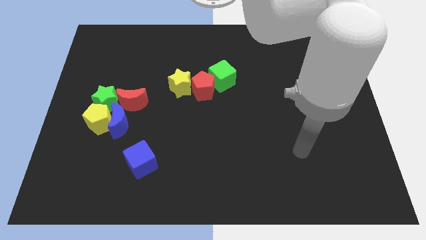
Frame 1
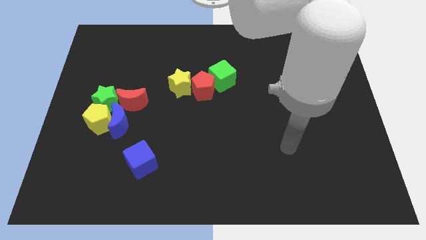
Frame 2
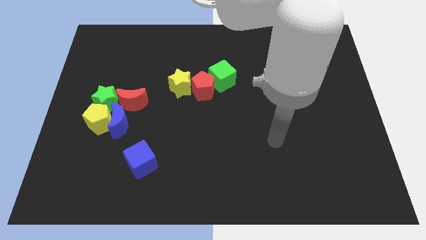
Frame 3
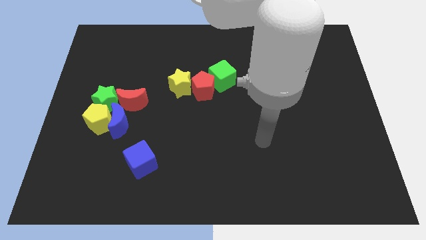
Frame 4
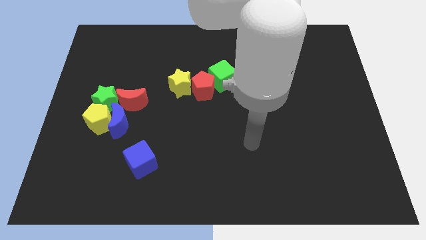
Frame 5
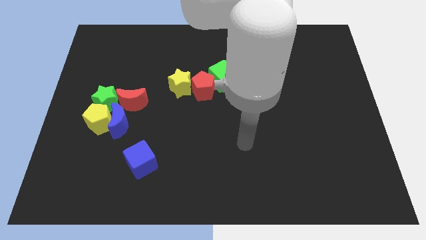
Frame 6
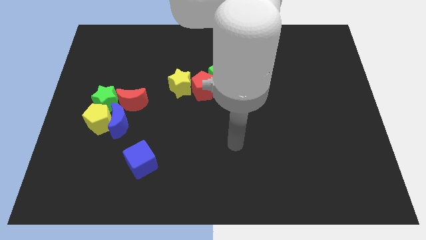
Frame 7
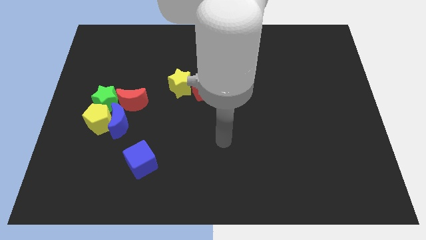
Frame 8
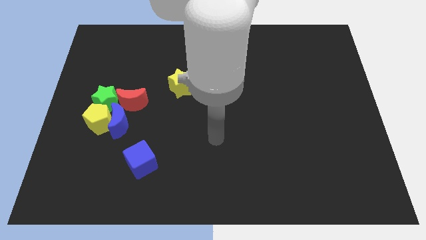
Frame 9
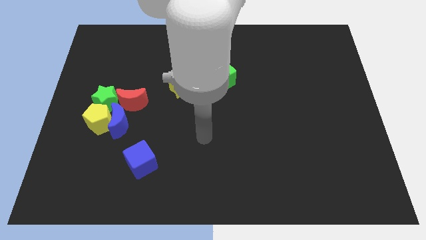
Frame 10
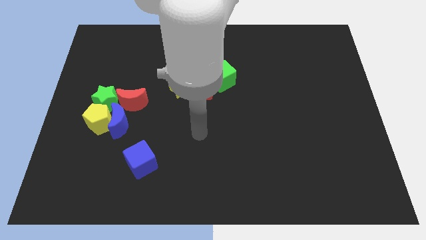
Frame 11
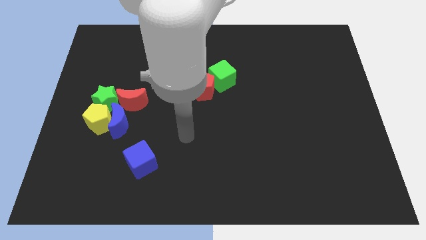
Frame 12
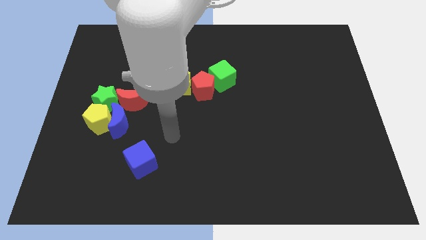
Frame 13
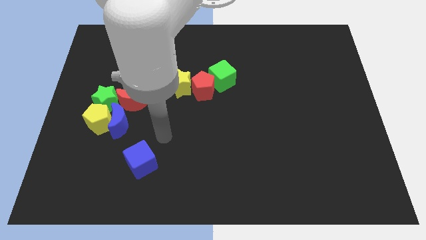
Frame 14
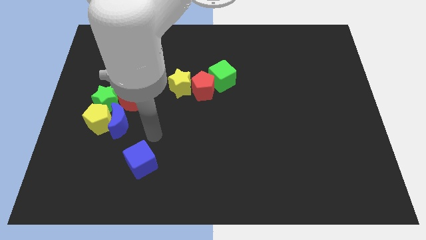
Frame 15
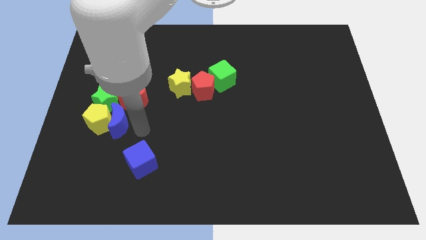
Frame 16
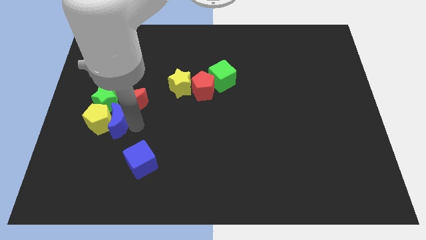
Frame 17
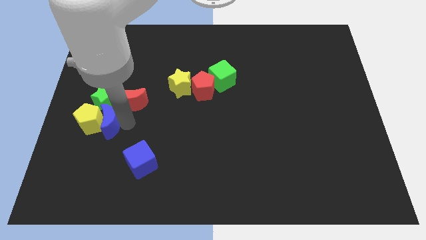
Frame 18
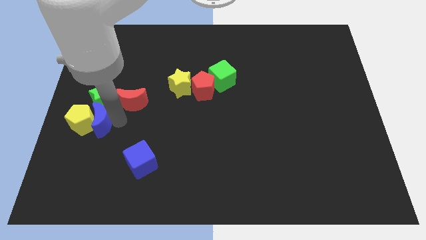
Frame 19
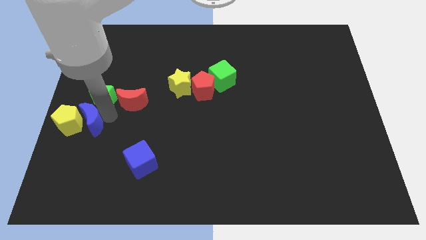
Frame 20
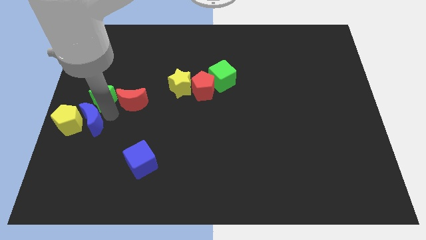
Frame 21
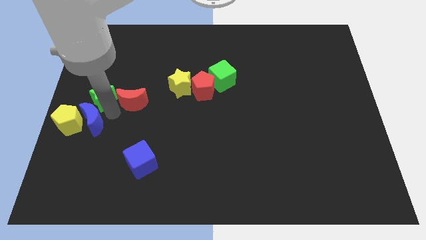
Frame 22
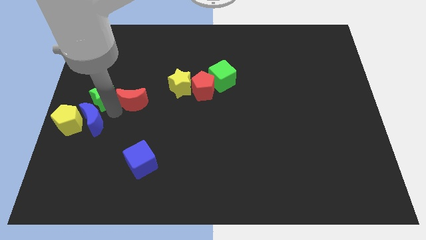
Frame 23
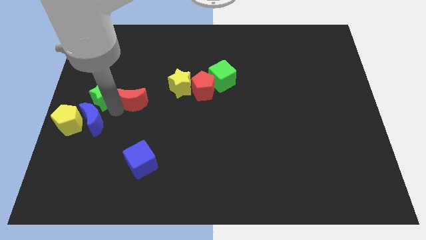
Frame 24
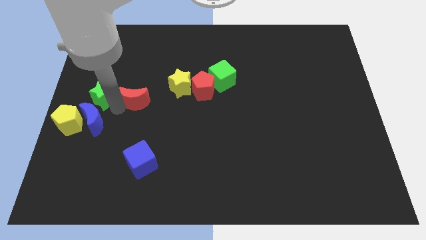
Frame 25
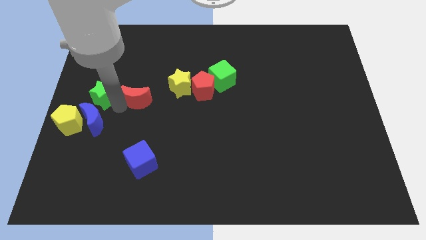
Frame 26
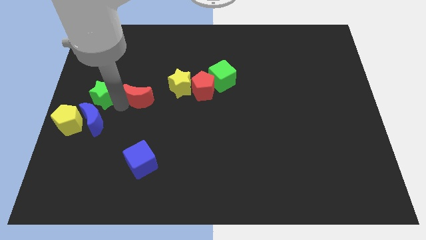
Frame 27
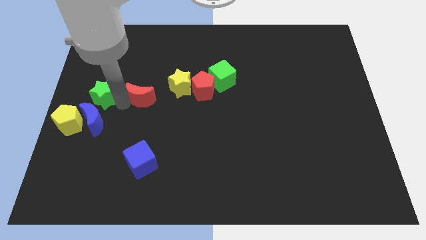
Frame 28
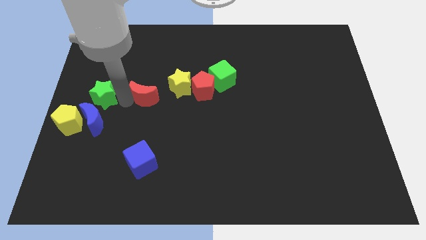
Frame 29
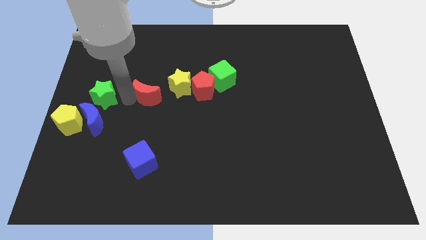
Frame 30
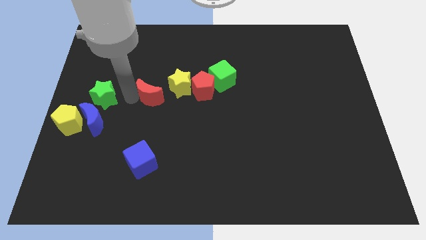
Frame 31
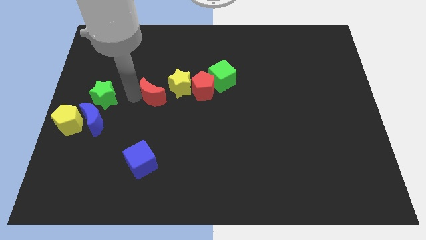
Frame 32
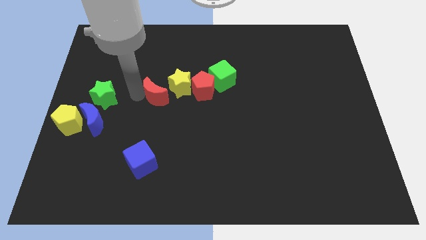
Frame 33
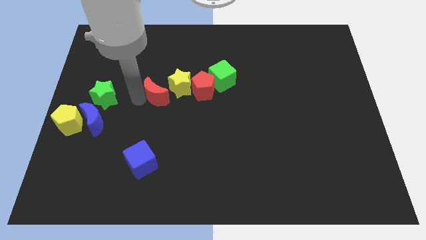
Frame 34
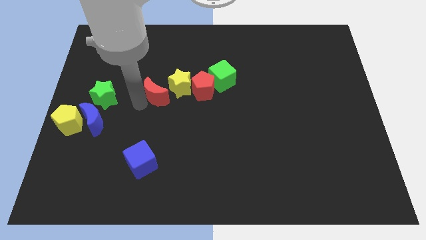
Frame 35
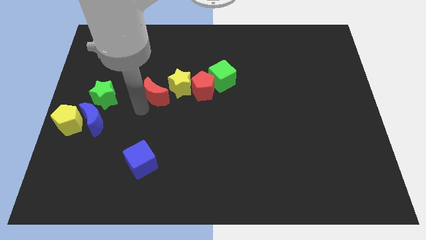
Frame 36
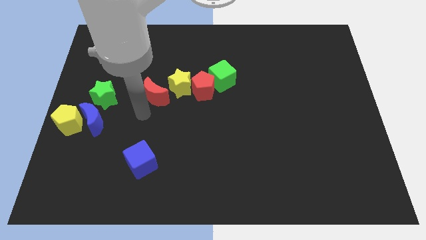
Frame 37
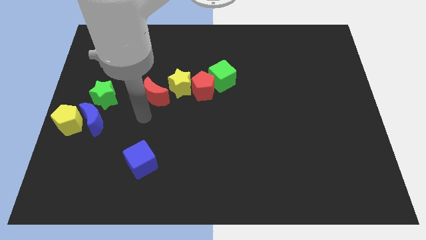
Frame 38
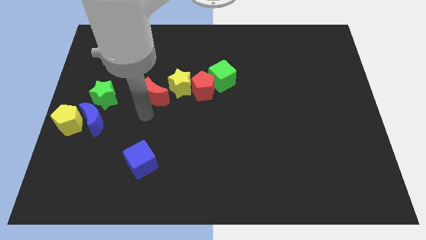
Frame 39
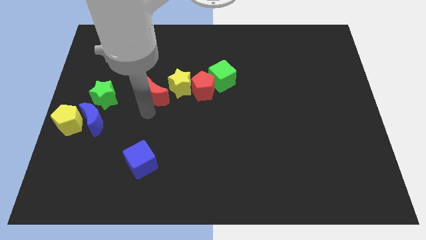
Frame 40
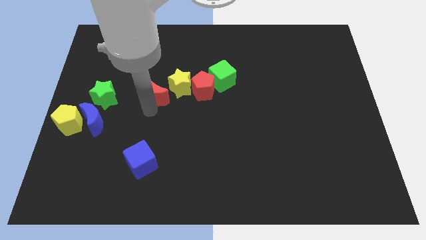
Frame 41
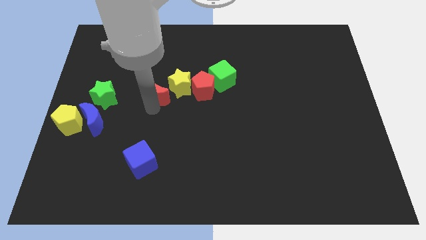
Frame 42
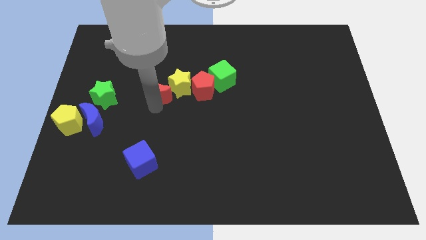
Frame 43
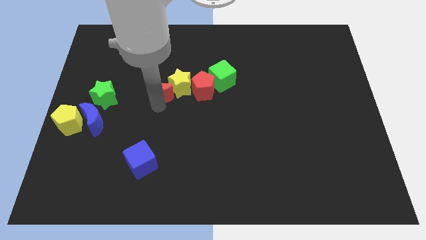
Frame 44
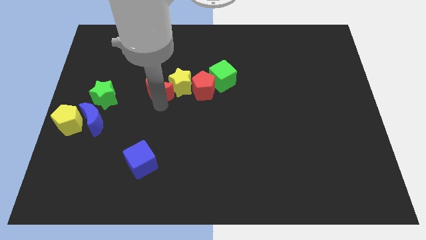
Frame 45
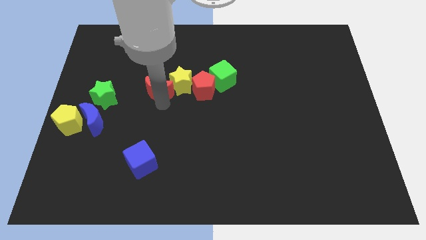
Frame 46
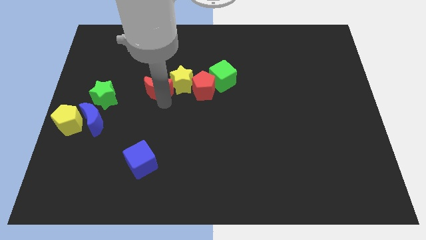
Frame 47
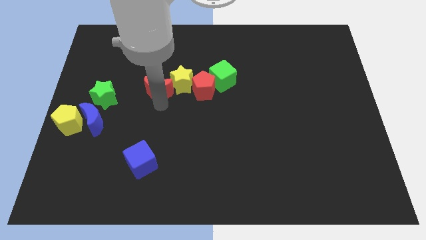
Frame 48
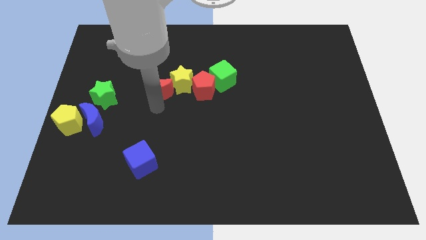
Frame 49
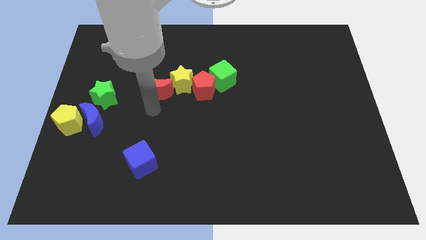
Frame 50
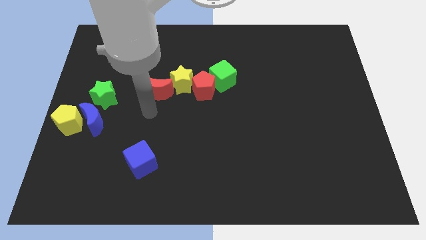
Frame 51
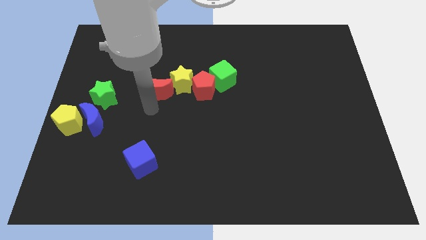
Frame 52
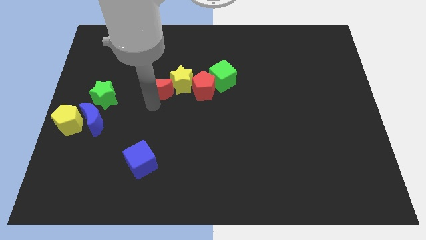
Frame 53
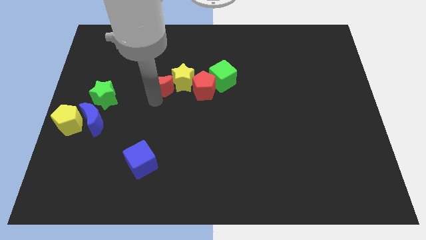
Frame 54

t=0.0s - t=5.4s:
slightly push the red moon up and right diagonally

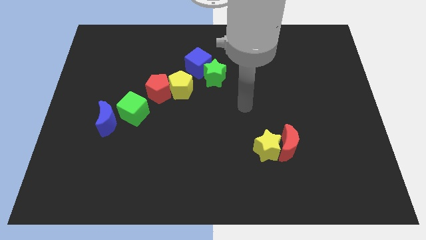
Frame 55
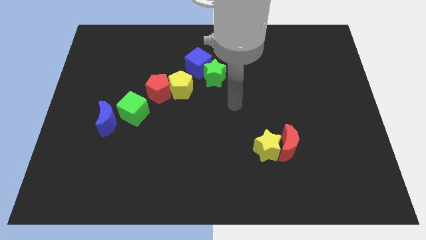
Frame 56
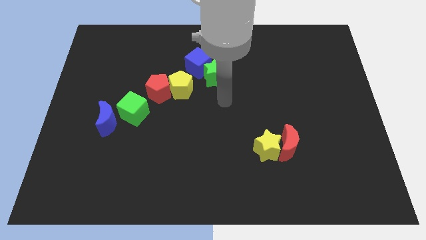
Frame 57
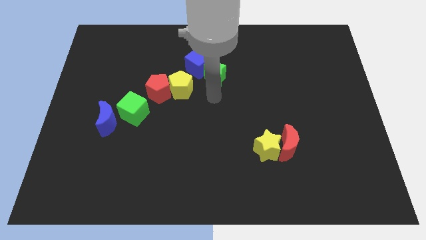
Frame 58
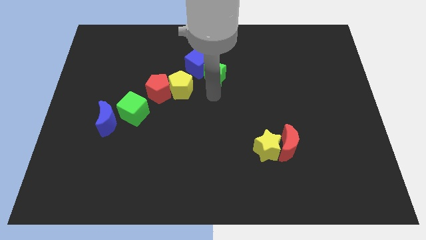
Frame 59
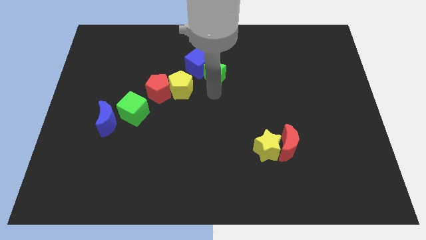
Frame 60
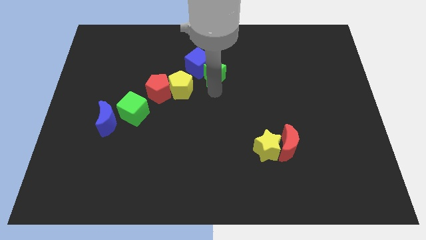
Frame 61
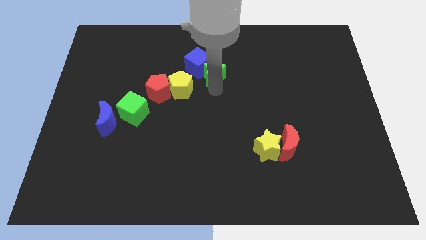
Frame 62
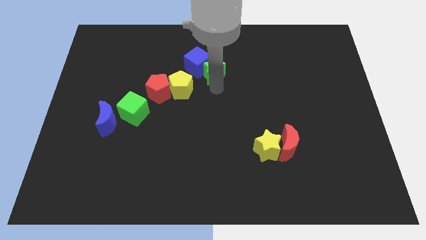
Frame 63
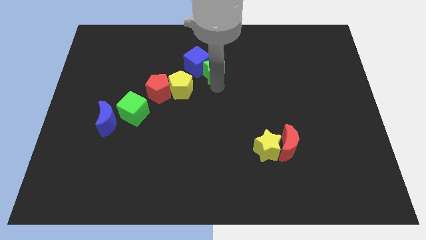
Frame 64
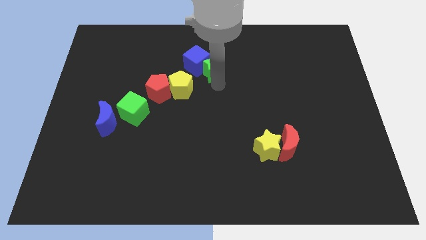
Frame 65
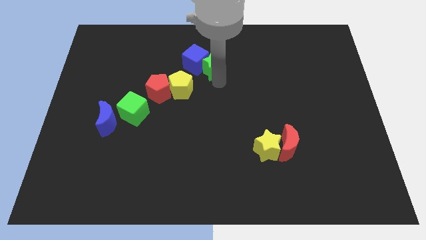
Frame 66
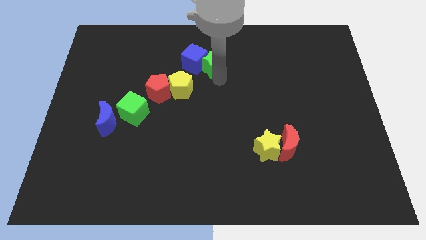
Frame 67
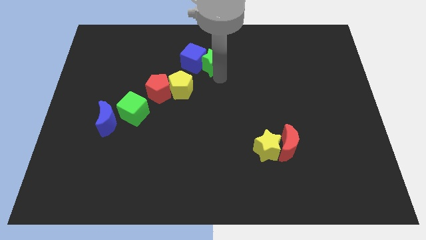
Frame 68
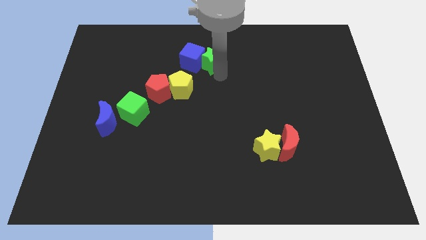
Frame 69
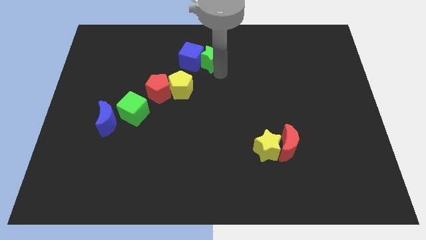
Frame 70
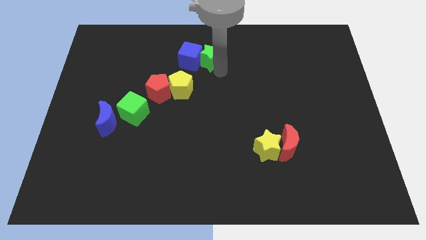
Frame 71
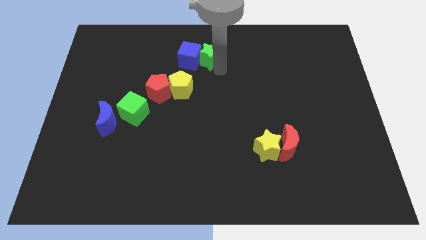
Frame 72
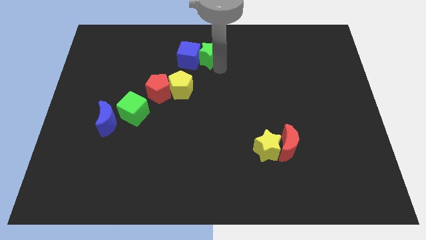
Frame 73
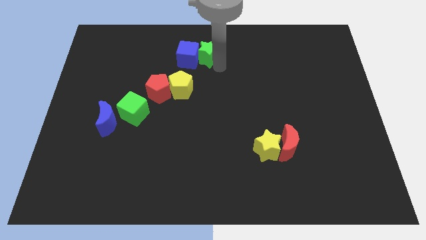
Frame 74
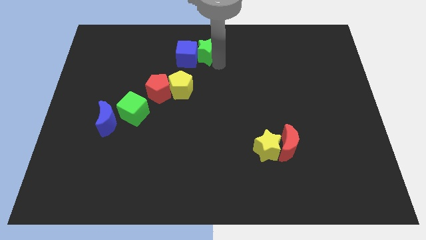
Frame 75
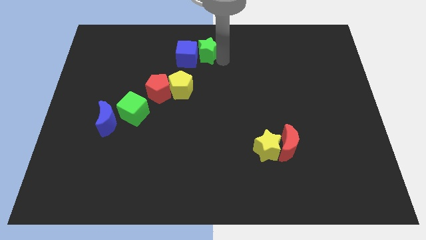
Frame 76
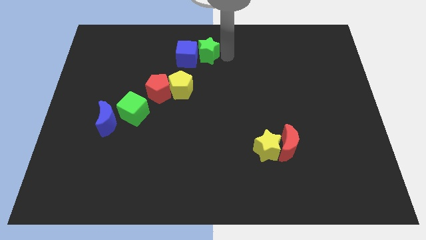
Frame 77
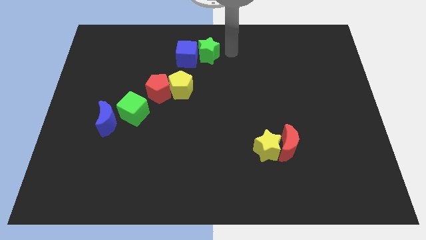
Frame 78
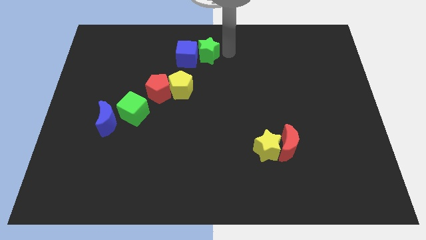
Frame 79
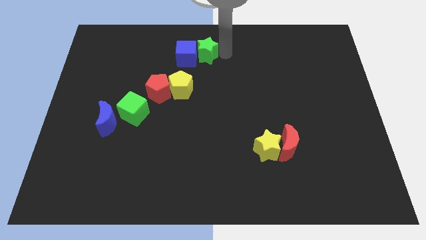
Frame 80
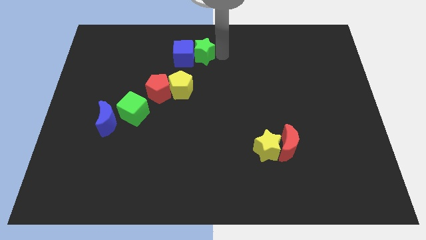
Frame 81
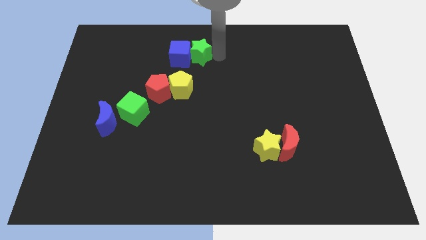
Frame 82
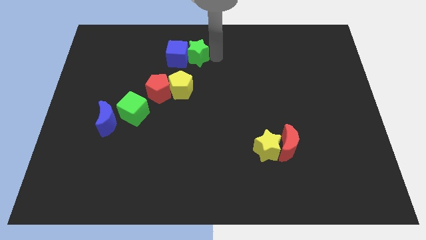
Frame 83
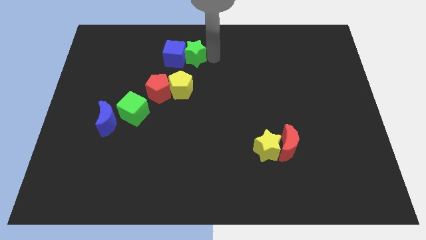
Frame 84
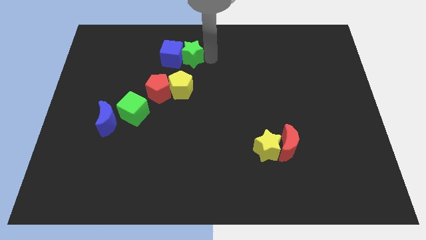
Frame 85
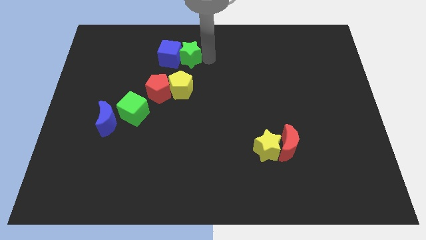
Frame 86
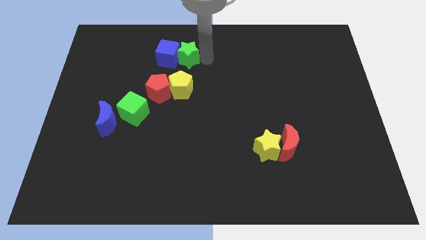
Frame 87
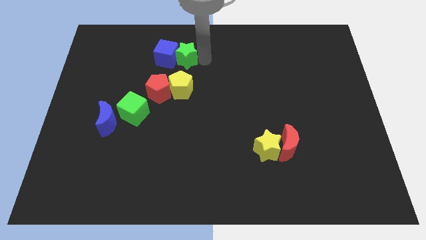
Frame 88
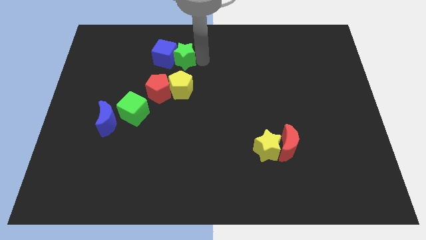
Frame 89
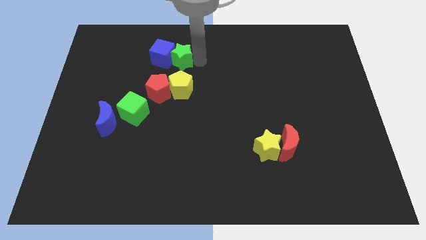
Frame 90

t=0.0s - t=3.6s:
slightly slide the green star to the left

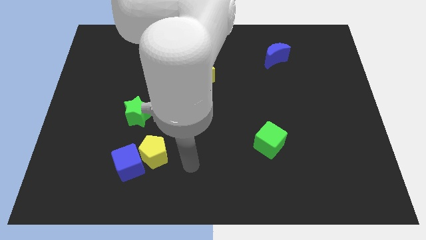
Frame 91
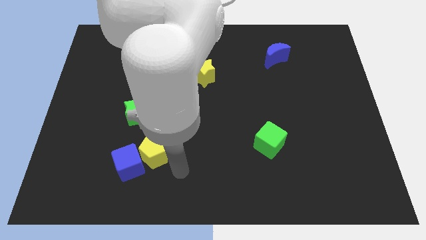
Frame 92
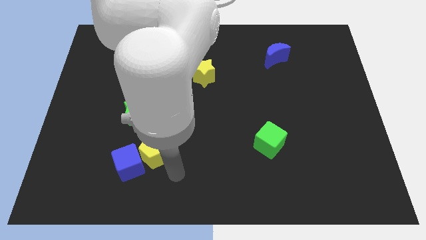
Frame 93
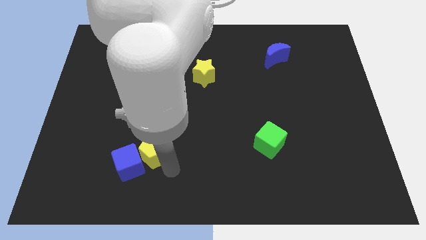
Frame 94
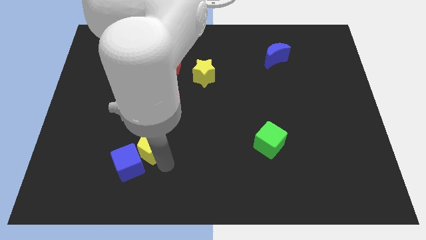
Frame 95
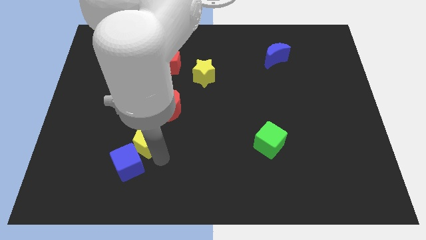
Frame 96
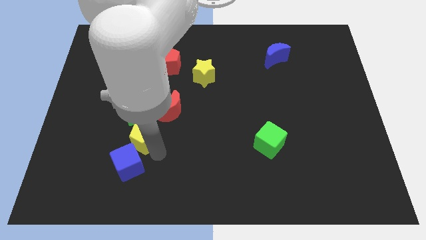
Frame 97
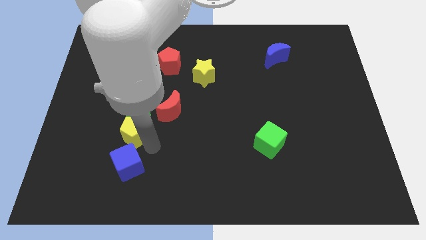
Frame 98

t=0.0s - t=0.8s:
slightly slide the yellow pentagon upwards and then to the left
